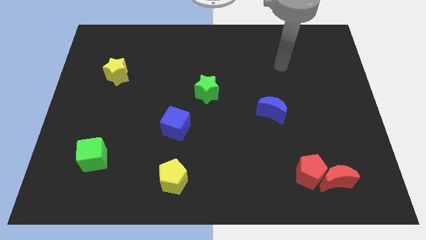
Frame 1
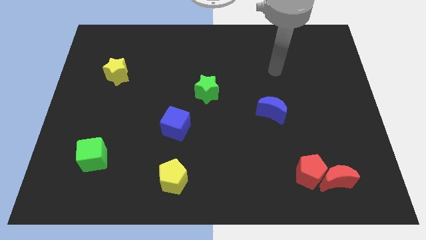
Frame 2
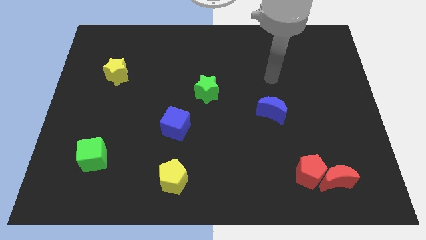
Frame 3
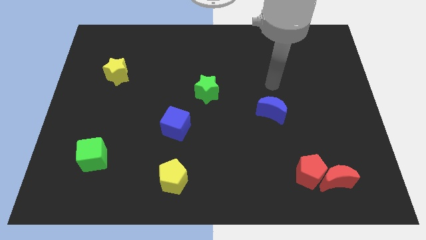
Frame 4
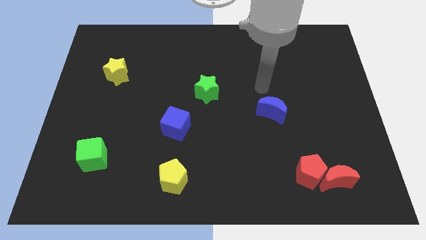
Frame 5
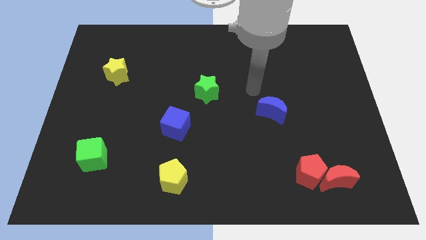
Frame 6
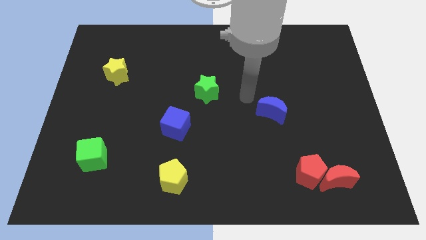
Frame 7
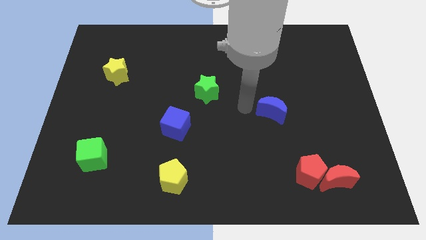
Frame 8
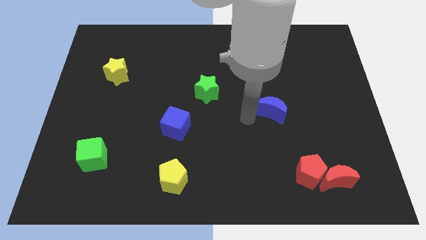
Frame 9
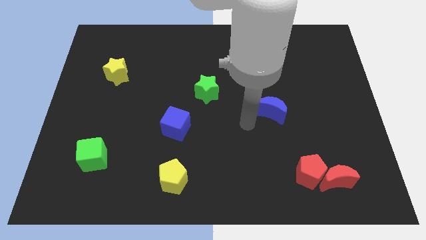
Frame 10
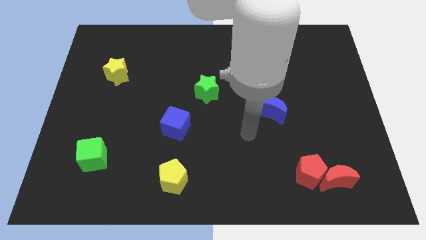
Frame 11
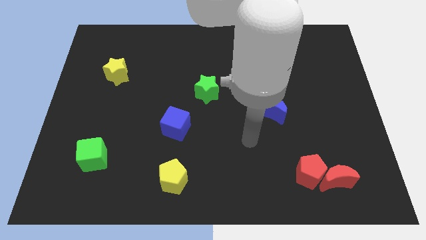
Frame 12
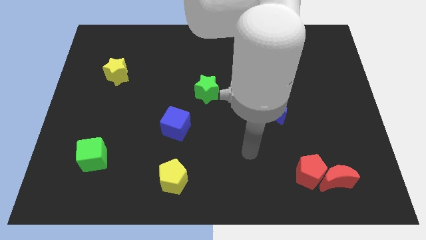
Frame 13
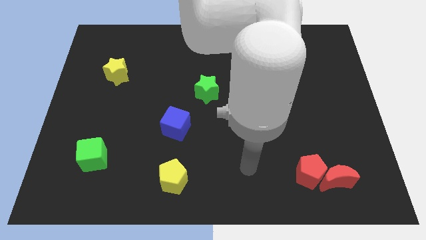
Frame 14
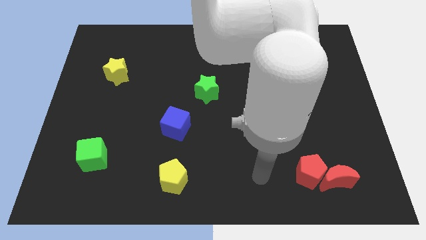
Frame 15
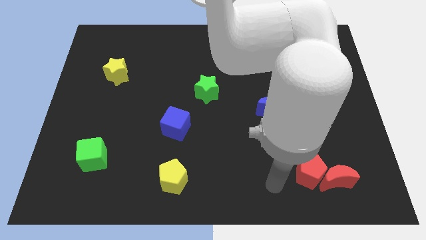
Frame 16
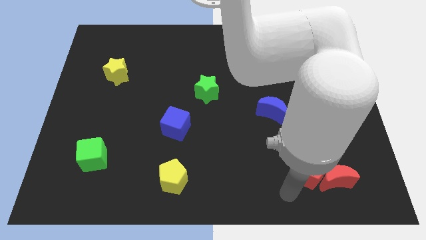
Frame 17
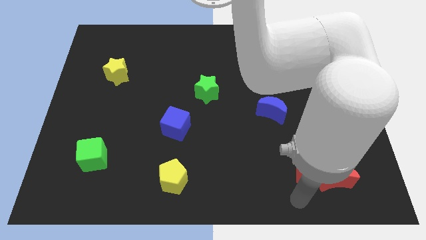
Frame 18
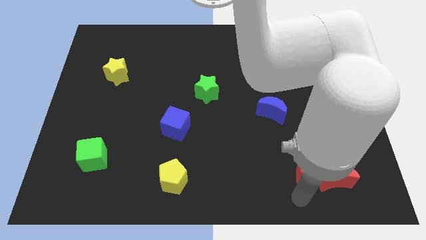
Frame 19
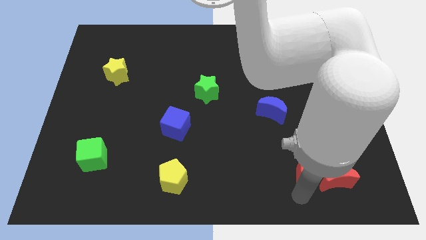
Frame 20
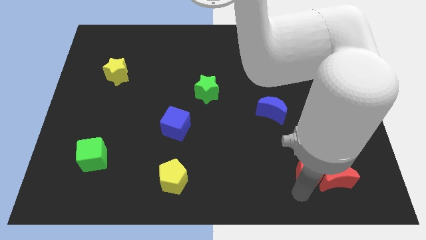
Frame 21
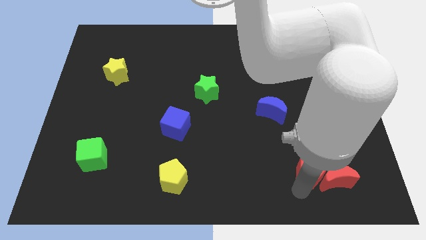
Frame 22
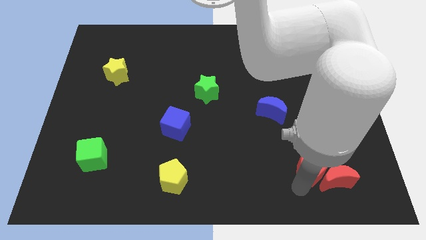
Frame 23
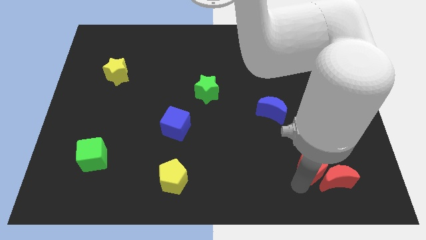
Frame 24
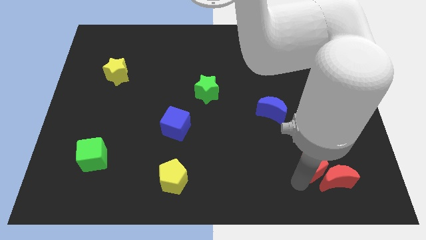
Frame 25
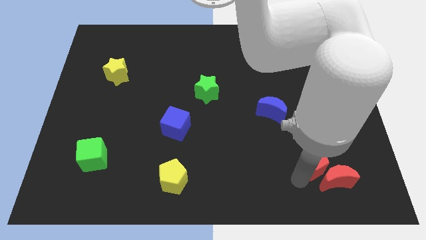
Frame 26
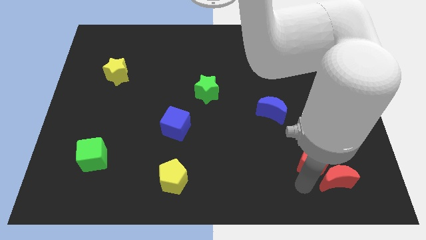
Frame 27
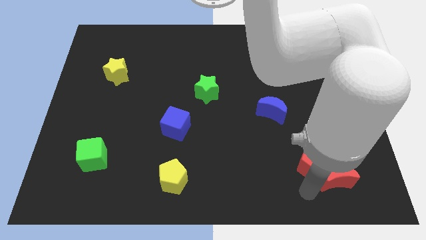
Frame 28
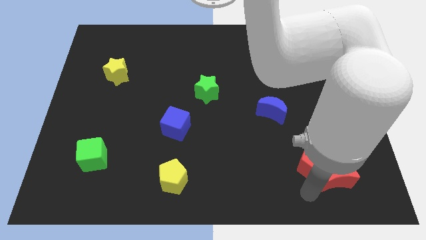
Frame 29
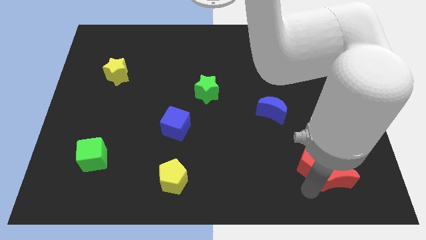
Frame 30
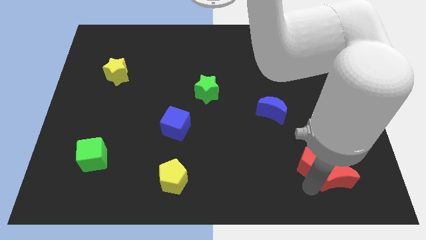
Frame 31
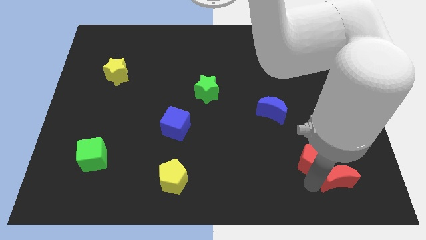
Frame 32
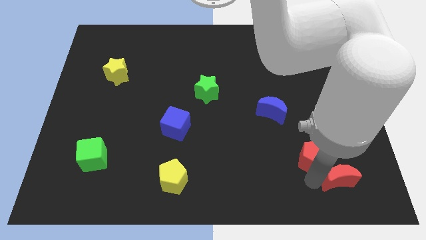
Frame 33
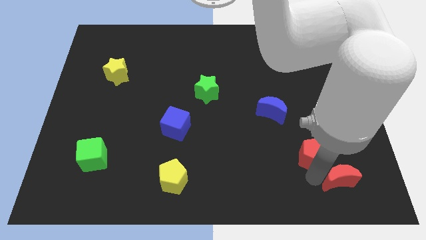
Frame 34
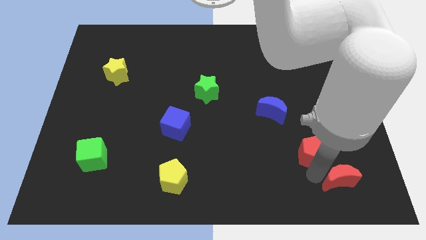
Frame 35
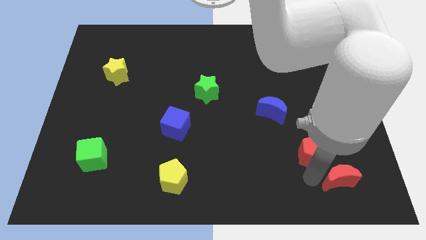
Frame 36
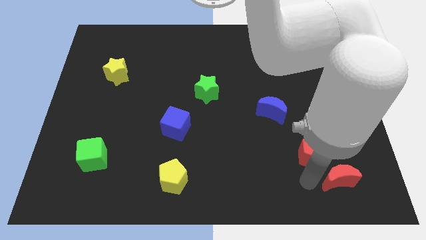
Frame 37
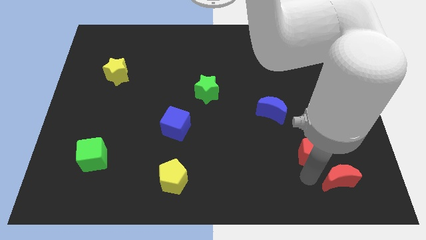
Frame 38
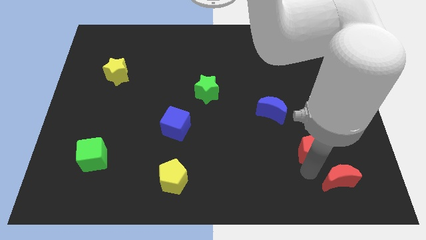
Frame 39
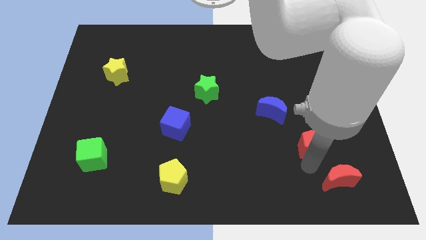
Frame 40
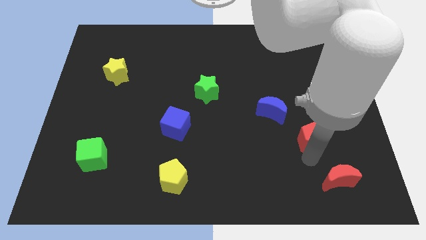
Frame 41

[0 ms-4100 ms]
slide the red pentagon somewhat up

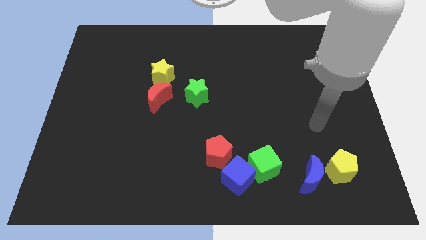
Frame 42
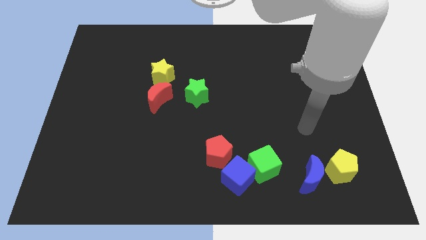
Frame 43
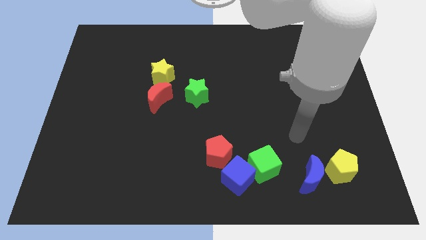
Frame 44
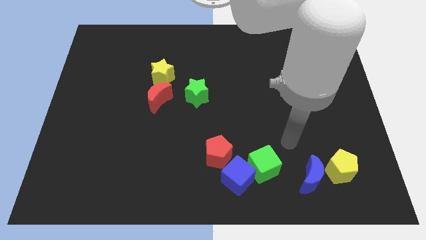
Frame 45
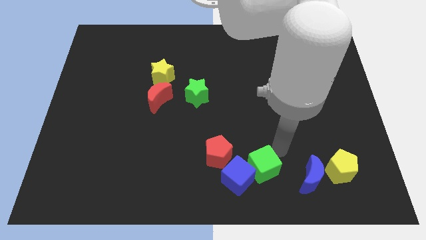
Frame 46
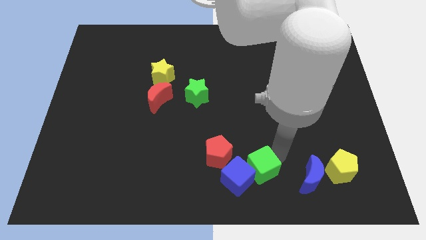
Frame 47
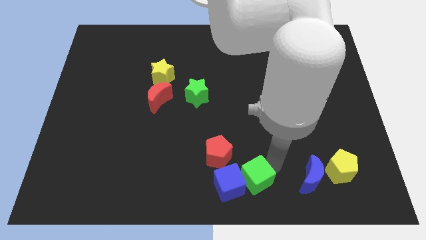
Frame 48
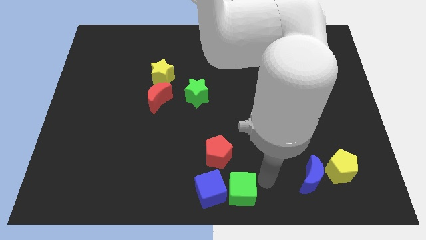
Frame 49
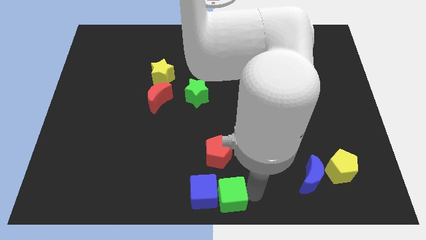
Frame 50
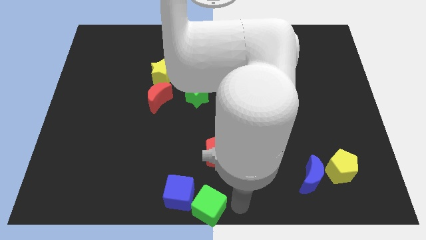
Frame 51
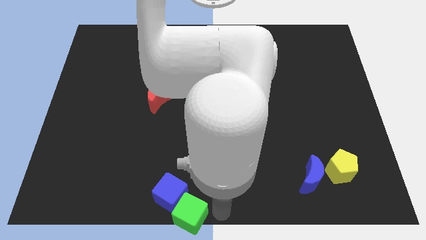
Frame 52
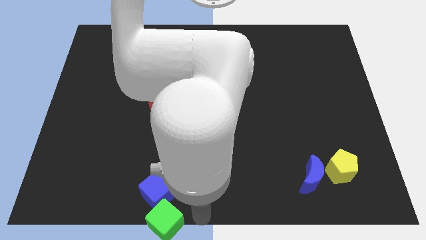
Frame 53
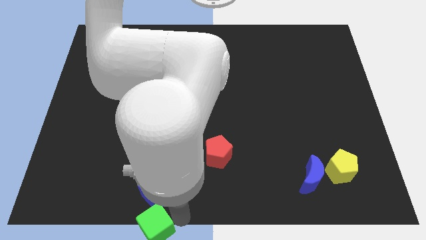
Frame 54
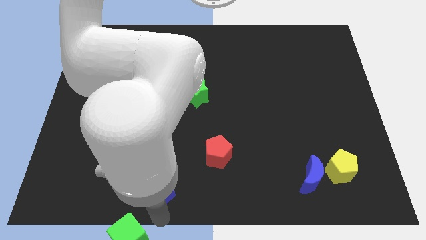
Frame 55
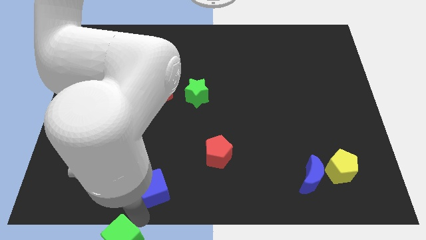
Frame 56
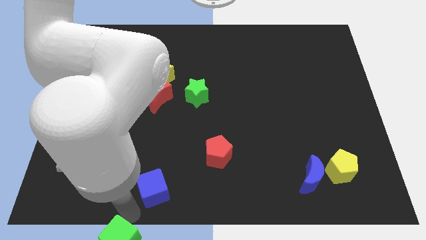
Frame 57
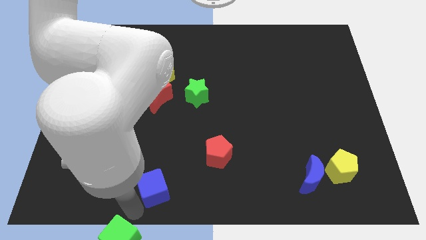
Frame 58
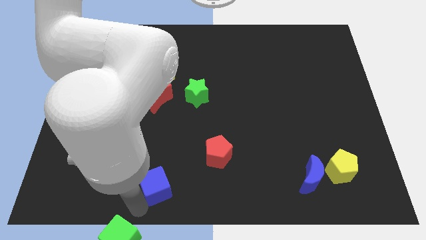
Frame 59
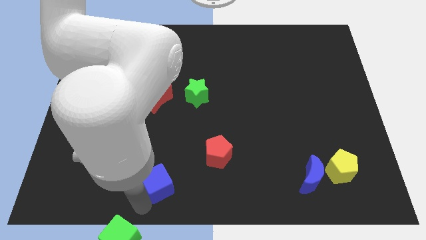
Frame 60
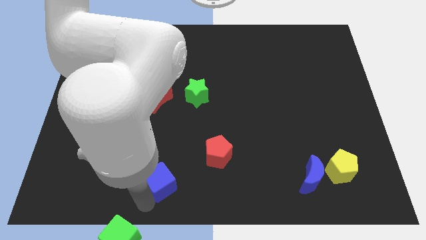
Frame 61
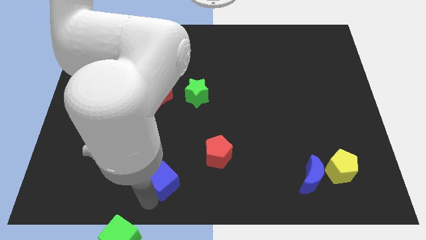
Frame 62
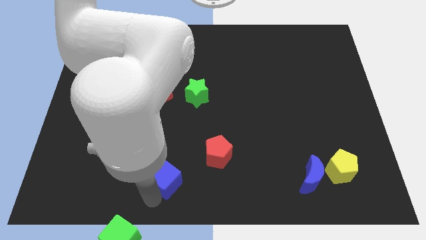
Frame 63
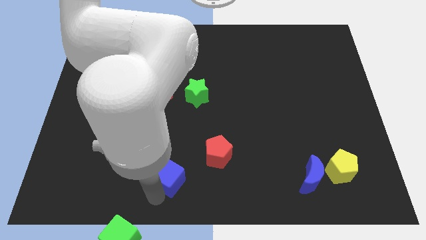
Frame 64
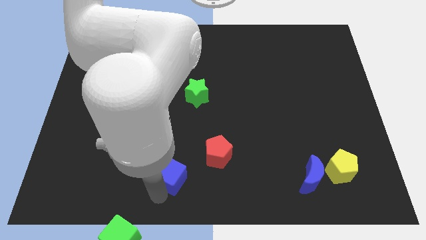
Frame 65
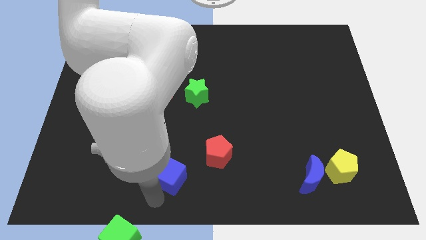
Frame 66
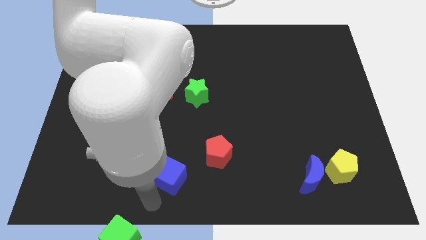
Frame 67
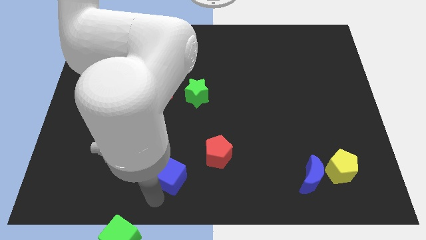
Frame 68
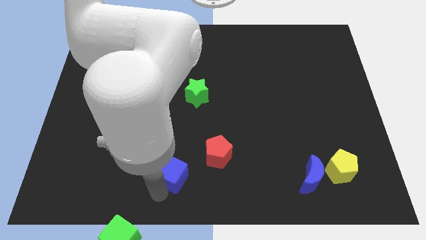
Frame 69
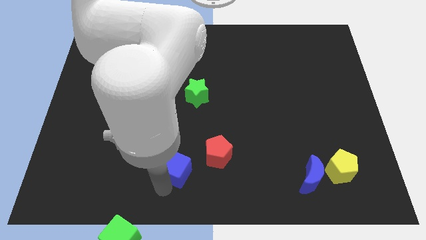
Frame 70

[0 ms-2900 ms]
push the blue cube diagonally upwards and left somewhat

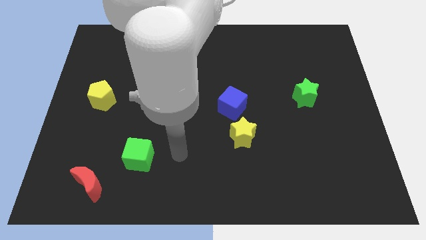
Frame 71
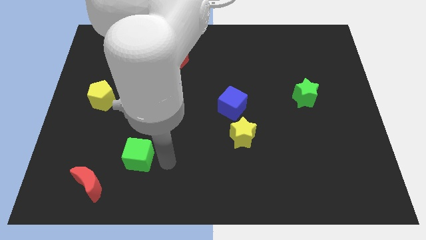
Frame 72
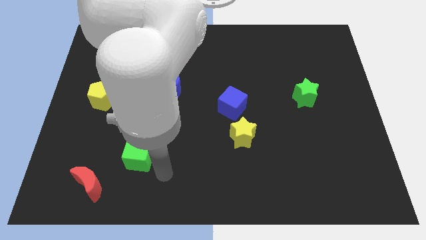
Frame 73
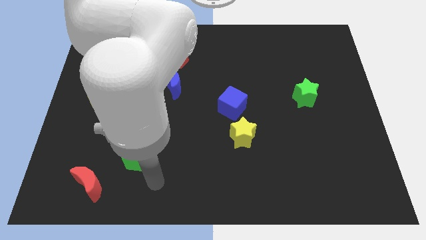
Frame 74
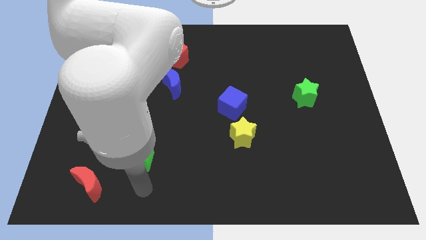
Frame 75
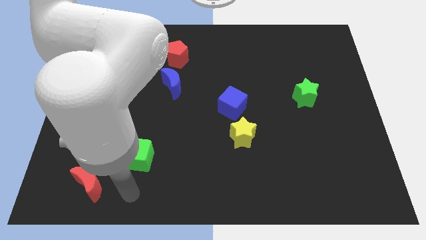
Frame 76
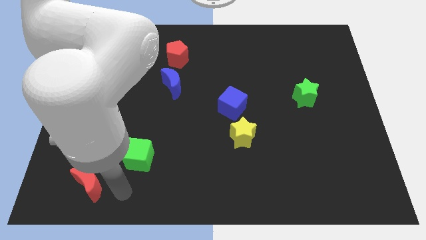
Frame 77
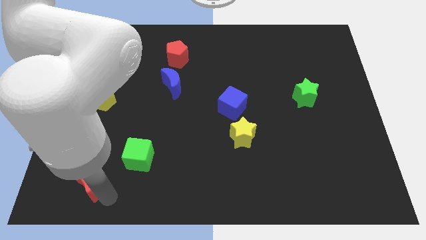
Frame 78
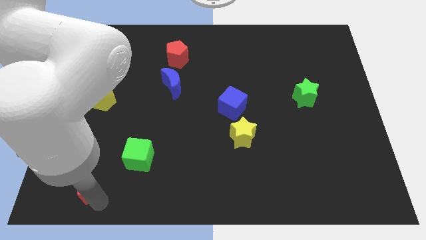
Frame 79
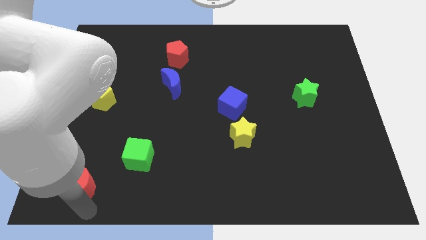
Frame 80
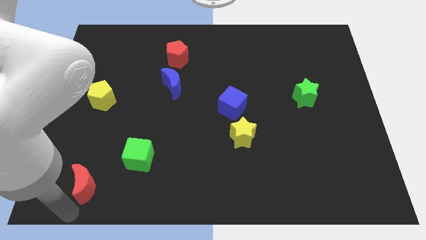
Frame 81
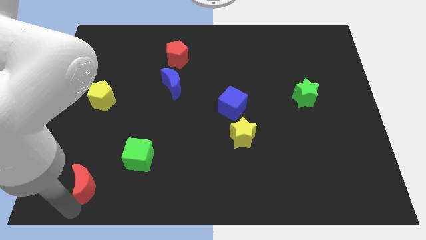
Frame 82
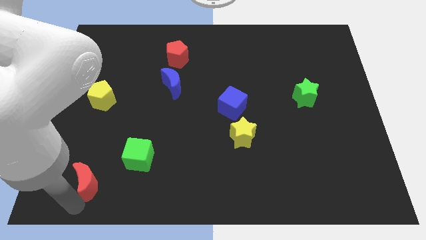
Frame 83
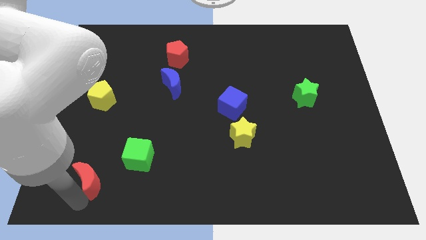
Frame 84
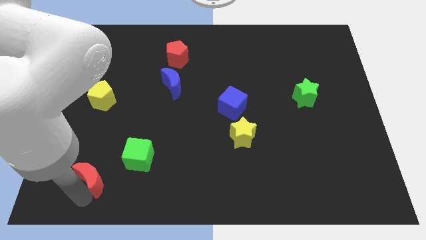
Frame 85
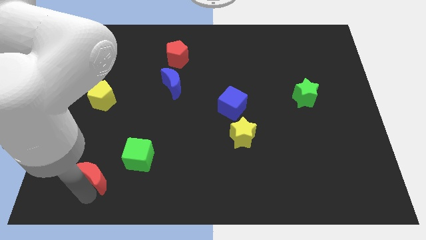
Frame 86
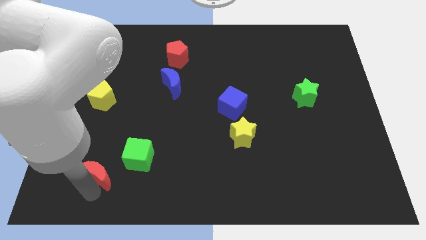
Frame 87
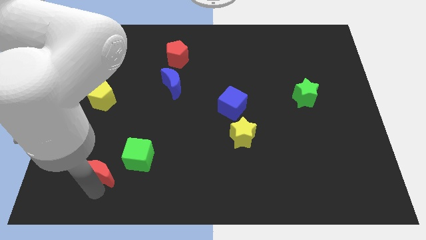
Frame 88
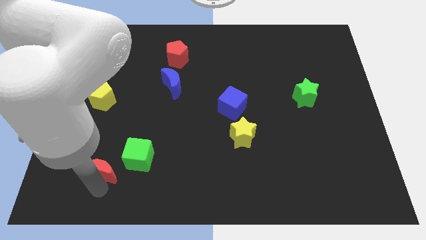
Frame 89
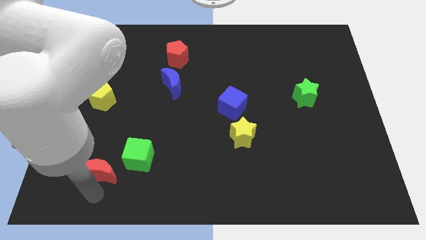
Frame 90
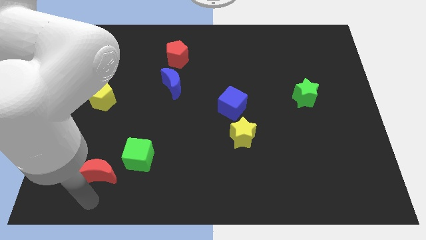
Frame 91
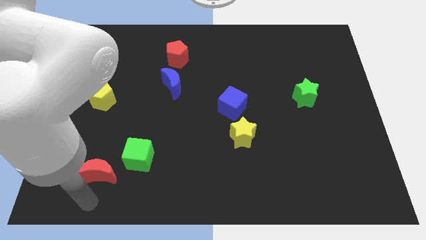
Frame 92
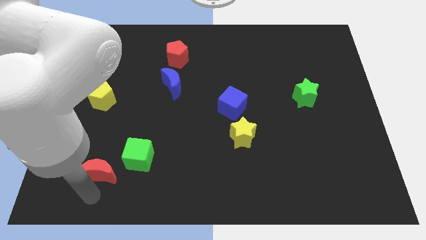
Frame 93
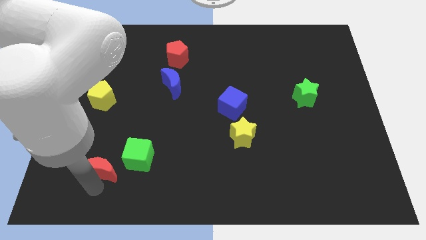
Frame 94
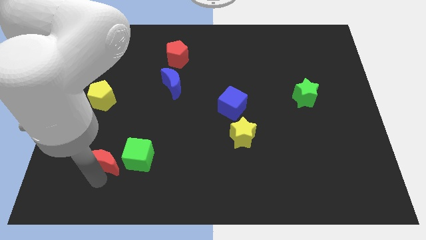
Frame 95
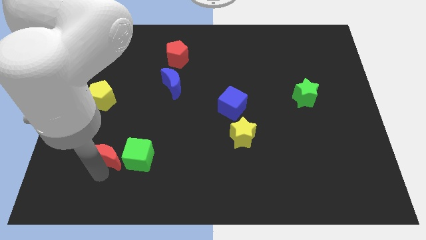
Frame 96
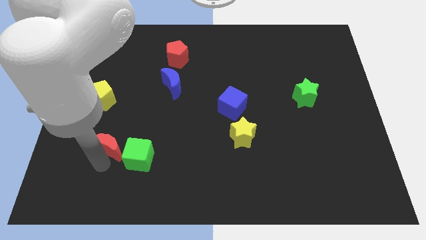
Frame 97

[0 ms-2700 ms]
slide the red moon slightly up and to the right
